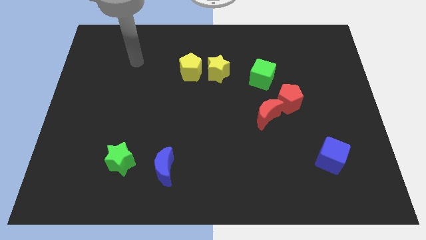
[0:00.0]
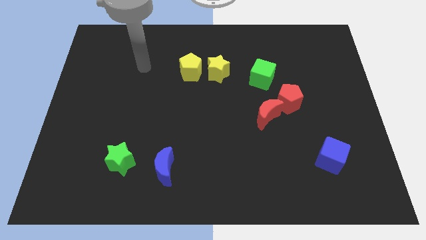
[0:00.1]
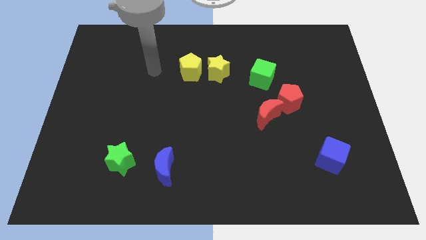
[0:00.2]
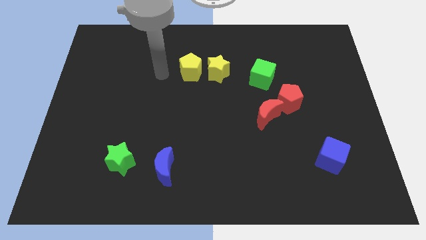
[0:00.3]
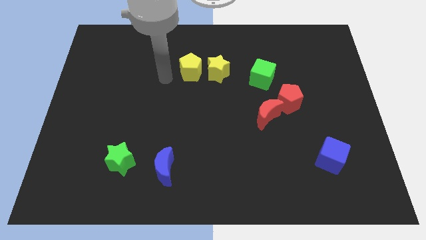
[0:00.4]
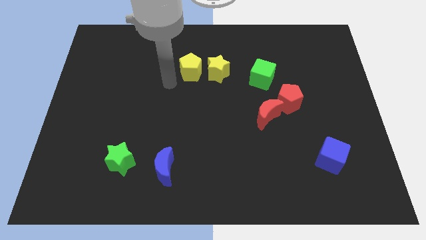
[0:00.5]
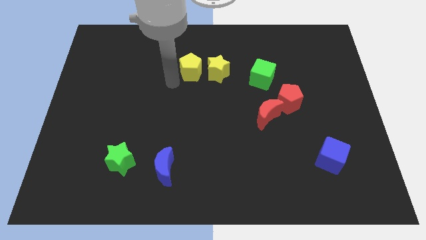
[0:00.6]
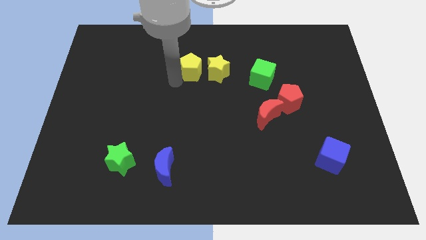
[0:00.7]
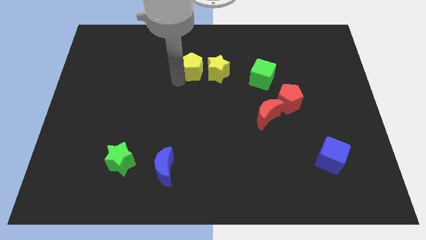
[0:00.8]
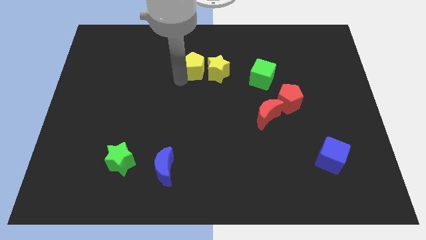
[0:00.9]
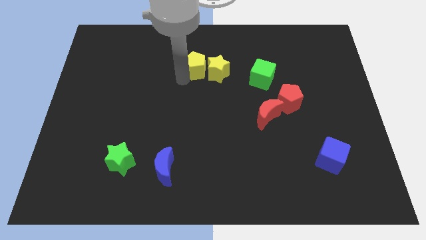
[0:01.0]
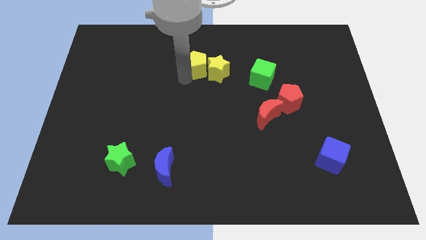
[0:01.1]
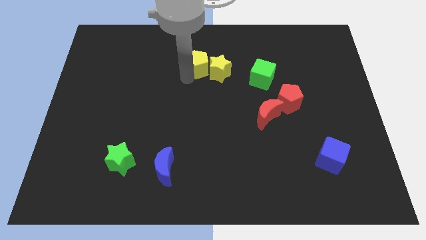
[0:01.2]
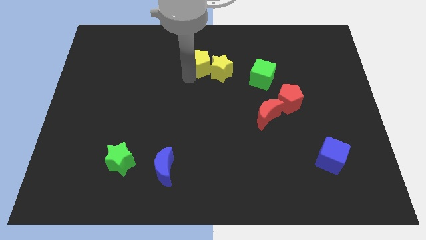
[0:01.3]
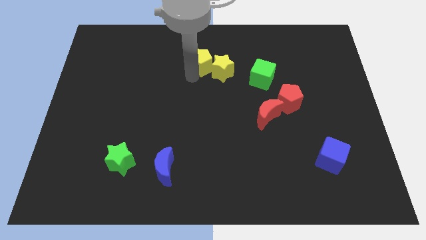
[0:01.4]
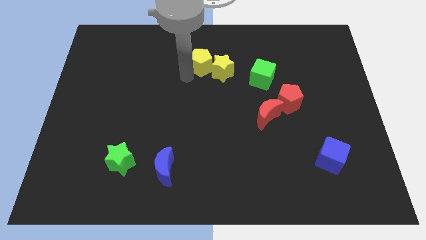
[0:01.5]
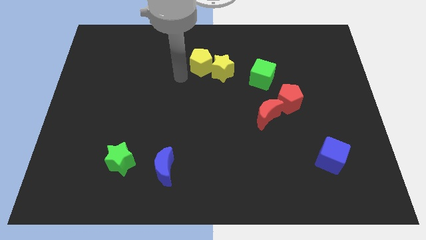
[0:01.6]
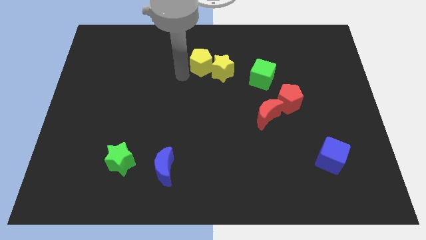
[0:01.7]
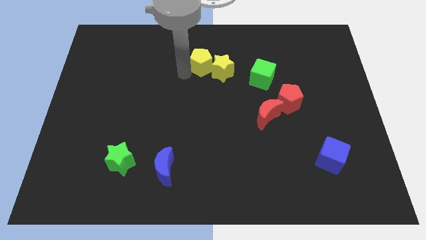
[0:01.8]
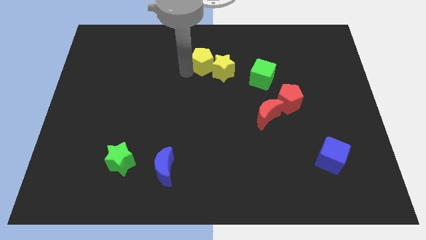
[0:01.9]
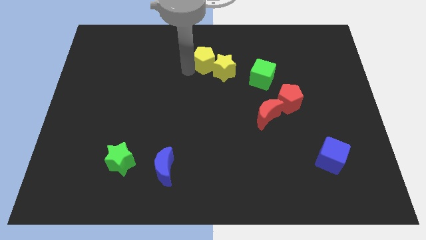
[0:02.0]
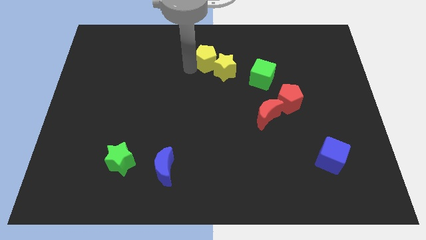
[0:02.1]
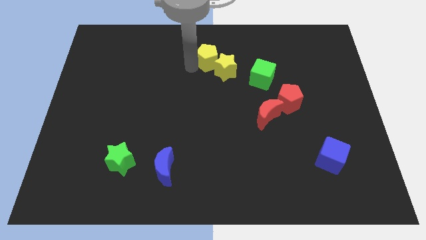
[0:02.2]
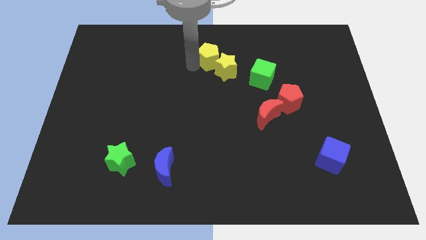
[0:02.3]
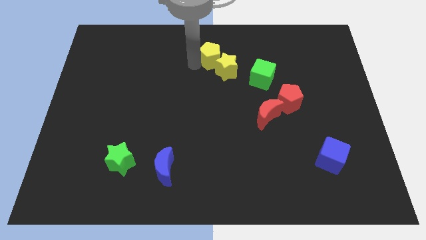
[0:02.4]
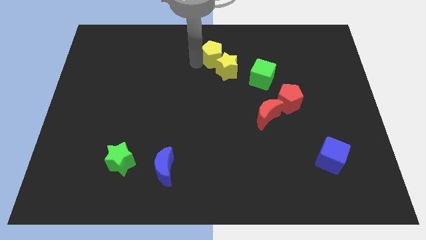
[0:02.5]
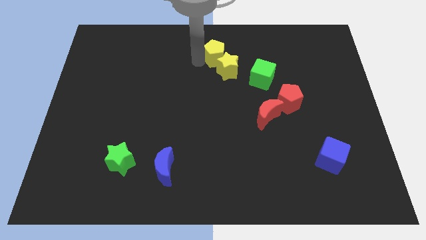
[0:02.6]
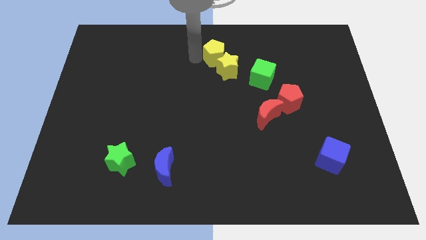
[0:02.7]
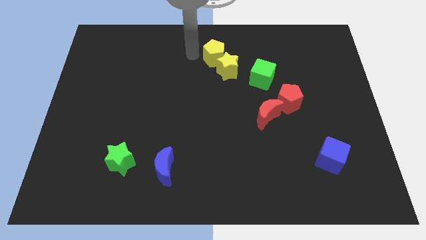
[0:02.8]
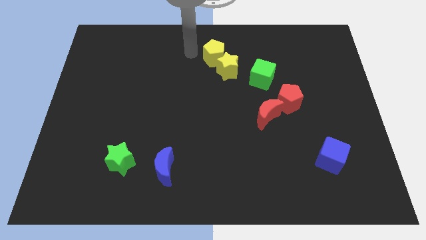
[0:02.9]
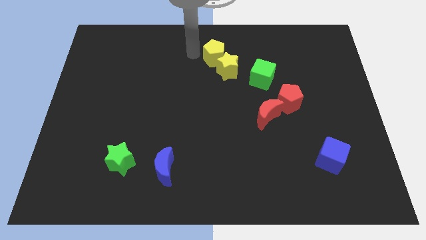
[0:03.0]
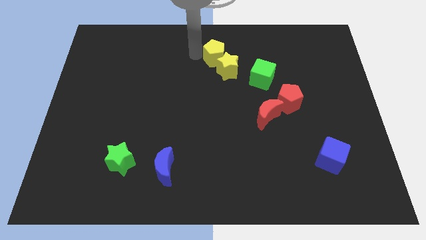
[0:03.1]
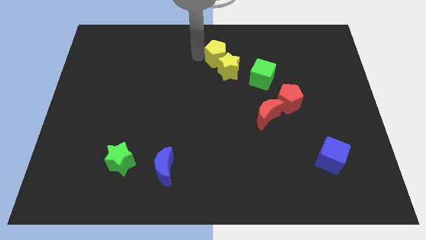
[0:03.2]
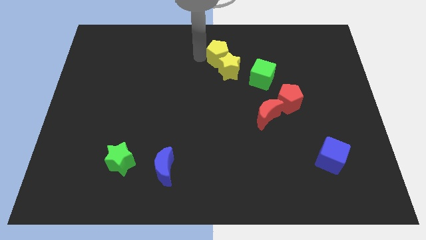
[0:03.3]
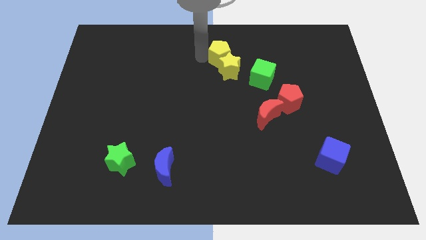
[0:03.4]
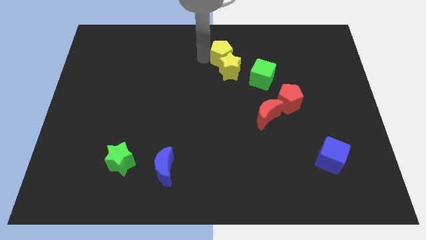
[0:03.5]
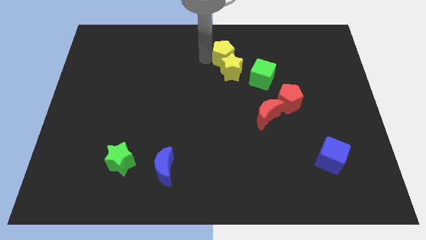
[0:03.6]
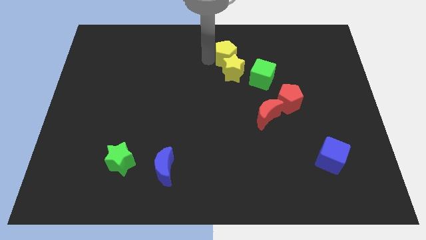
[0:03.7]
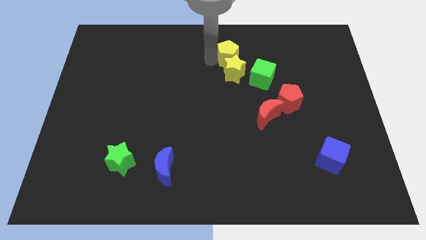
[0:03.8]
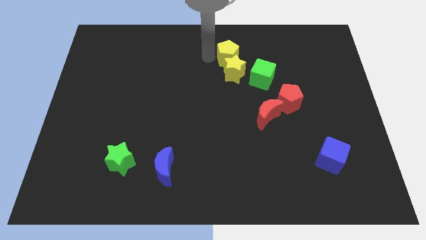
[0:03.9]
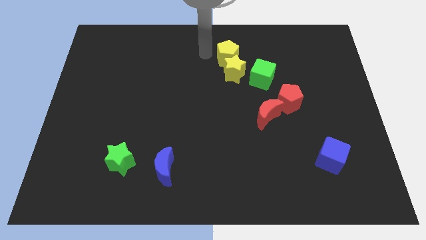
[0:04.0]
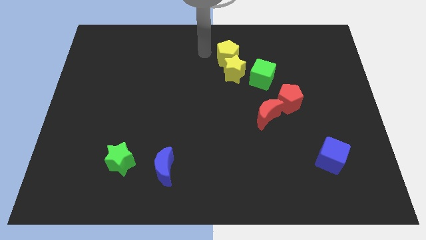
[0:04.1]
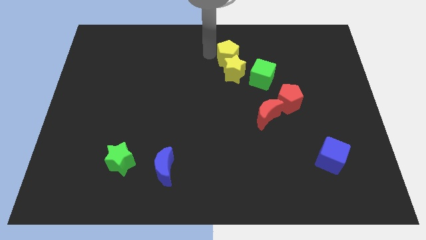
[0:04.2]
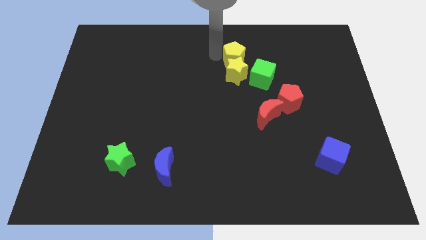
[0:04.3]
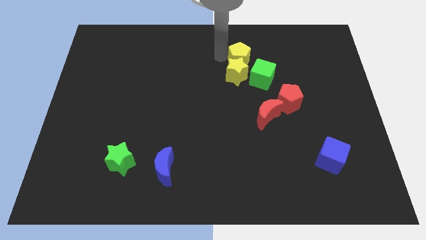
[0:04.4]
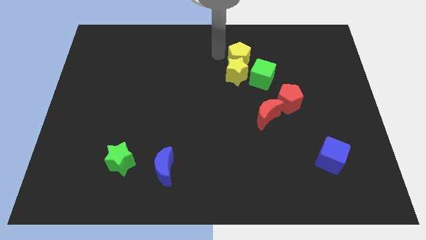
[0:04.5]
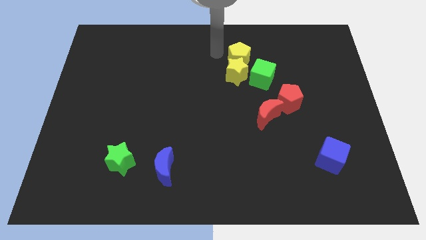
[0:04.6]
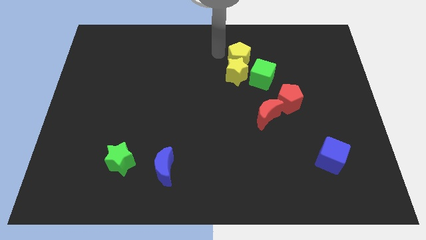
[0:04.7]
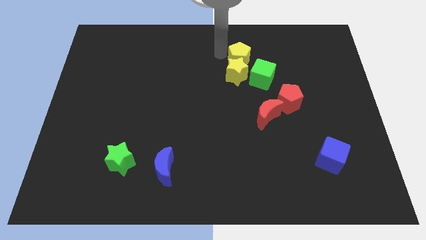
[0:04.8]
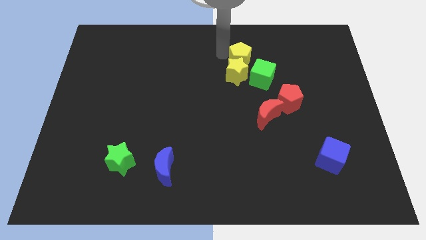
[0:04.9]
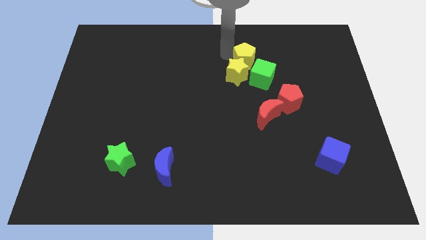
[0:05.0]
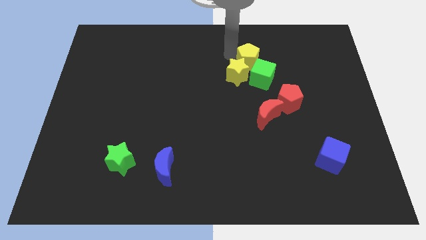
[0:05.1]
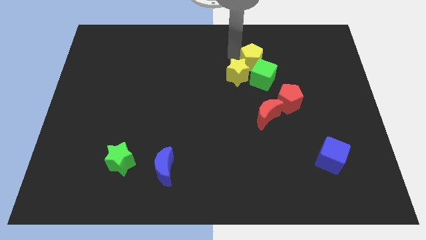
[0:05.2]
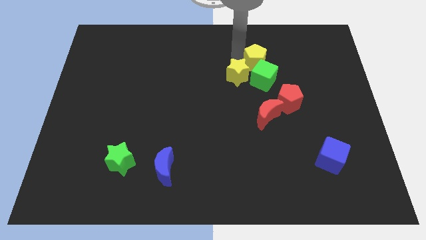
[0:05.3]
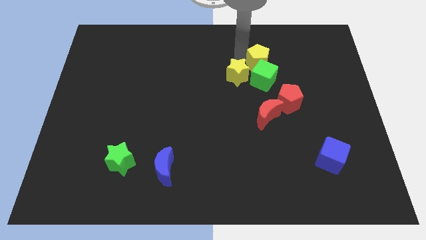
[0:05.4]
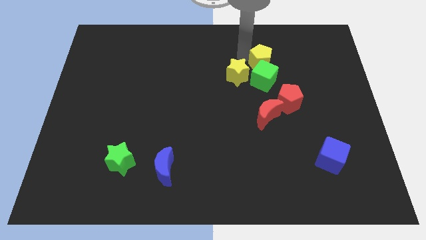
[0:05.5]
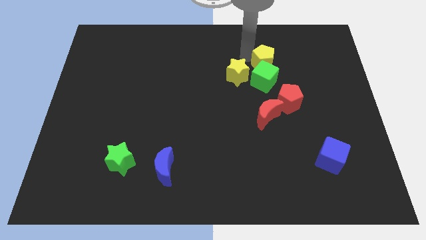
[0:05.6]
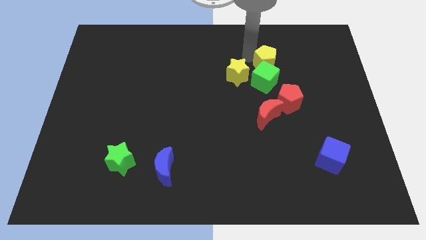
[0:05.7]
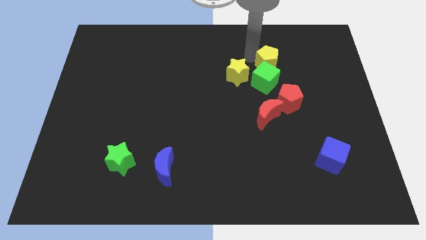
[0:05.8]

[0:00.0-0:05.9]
move the yellow pentagon right

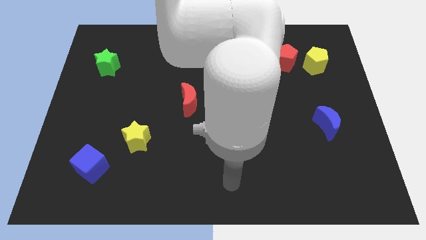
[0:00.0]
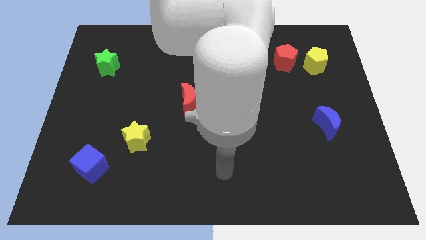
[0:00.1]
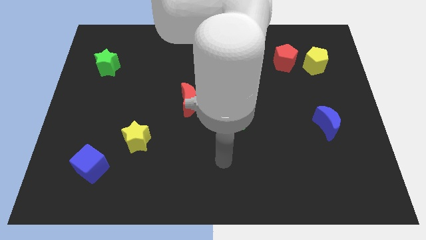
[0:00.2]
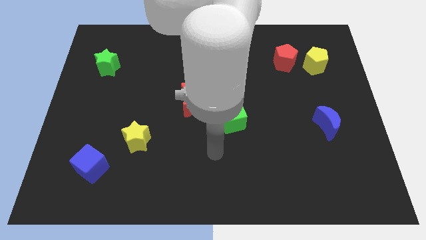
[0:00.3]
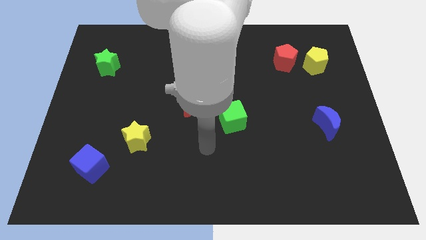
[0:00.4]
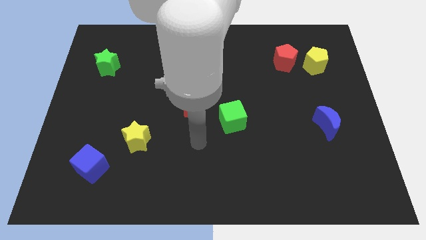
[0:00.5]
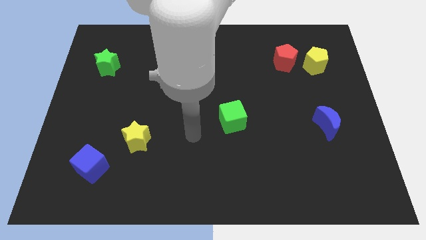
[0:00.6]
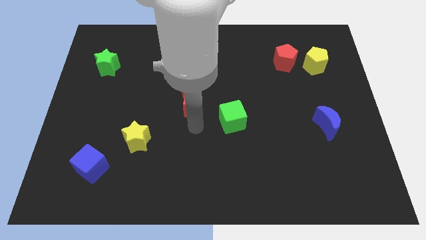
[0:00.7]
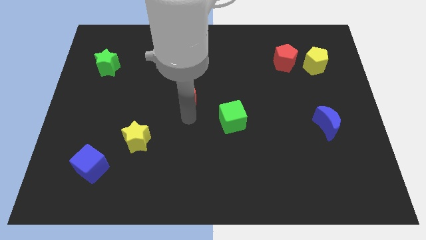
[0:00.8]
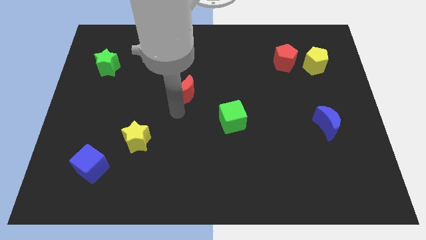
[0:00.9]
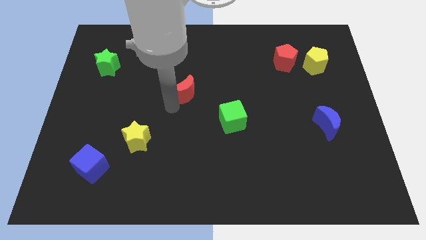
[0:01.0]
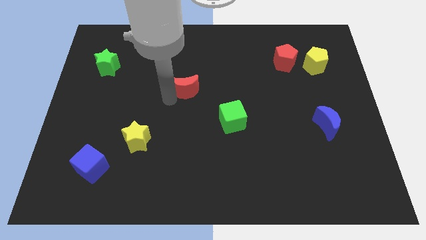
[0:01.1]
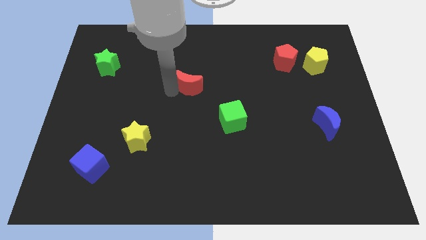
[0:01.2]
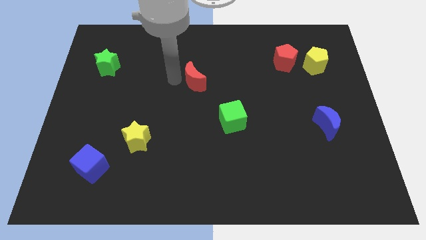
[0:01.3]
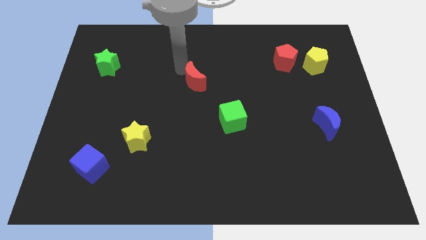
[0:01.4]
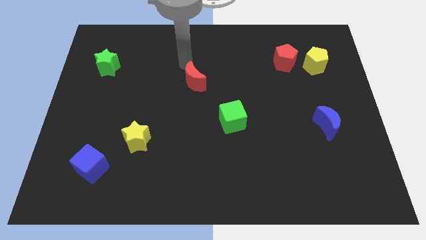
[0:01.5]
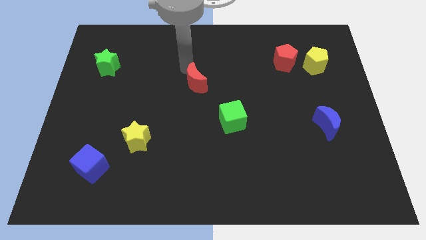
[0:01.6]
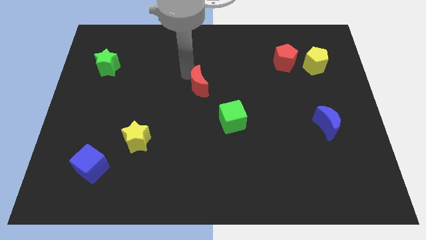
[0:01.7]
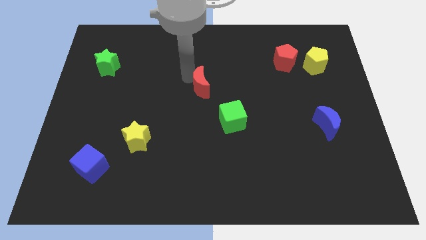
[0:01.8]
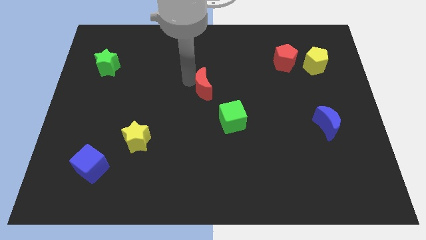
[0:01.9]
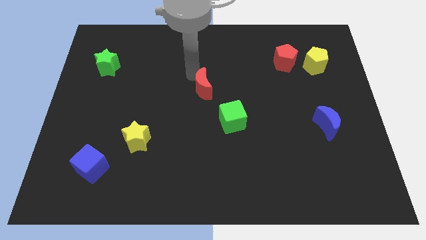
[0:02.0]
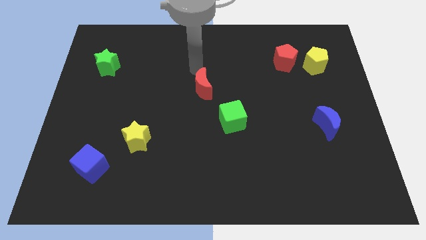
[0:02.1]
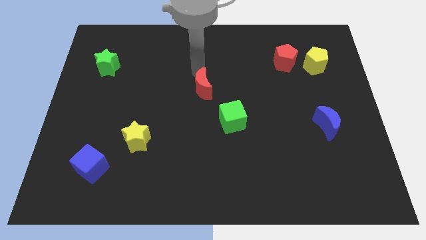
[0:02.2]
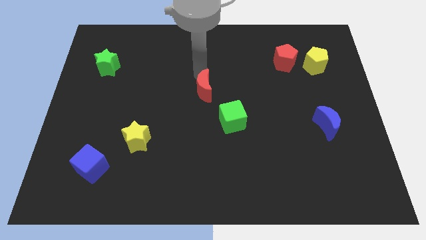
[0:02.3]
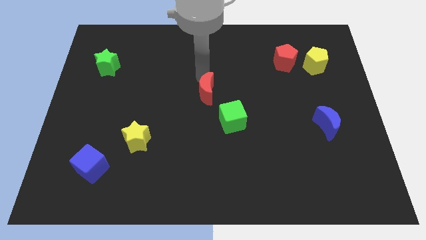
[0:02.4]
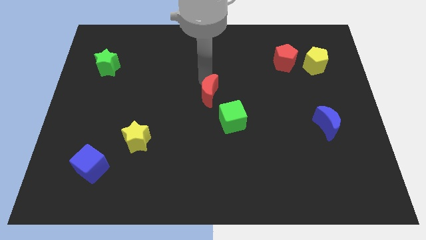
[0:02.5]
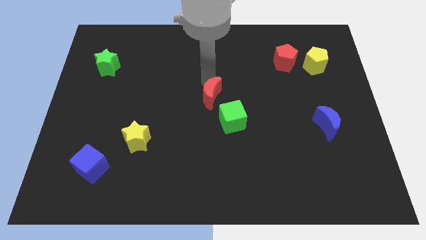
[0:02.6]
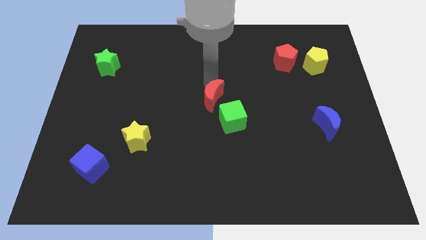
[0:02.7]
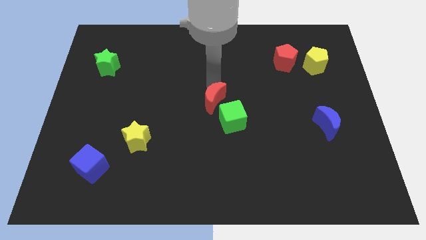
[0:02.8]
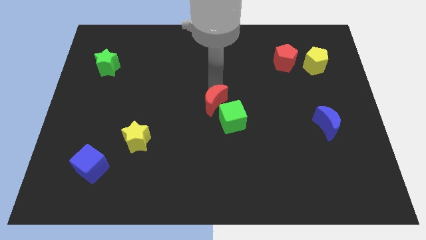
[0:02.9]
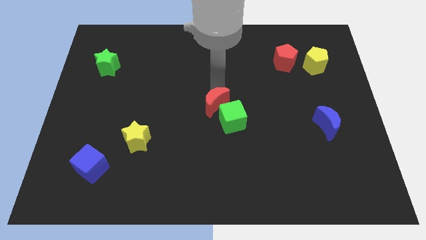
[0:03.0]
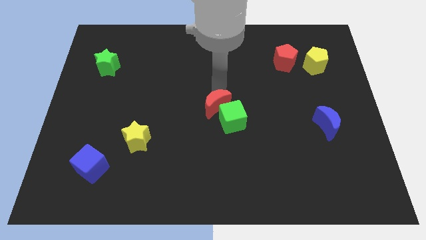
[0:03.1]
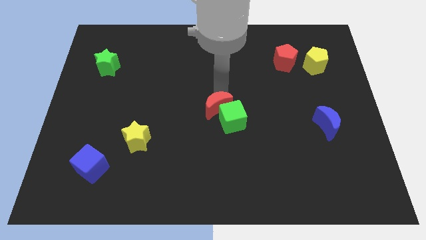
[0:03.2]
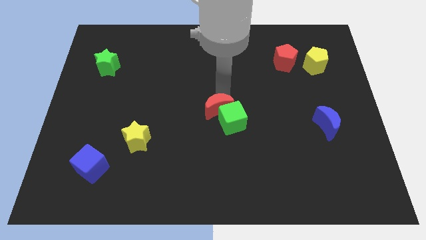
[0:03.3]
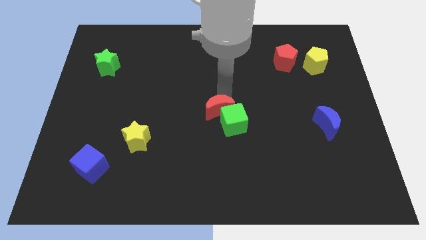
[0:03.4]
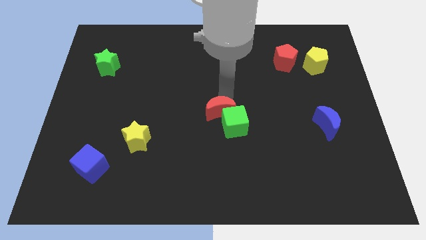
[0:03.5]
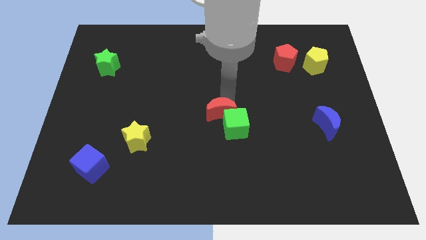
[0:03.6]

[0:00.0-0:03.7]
move the red moon downwards and then to the right somewhat
